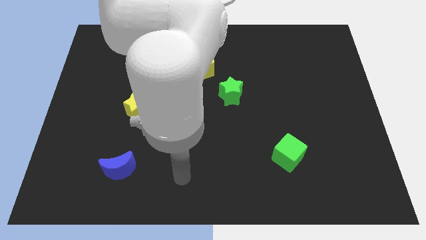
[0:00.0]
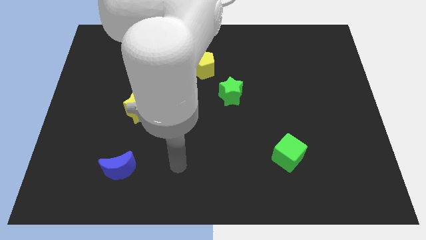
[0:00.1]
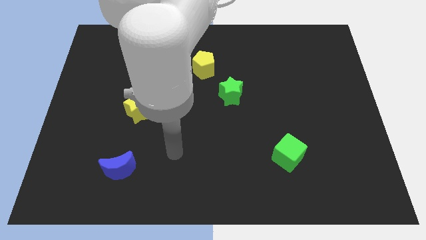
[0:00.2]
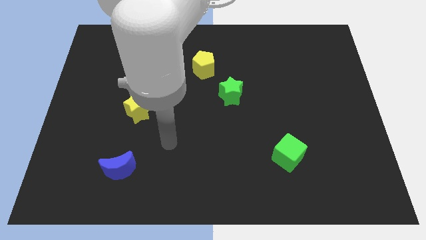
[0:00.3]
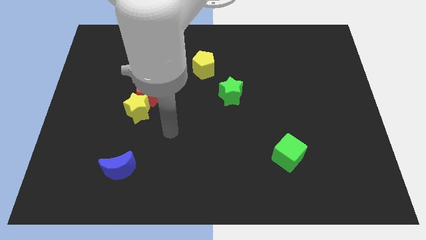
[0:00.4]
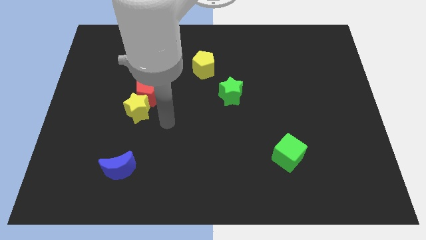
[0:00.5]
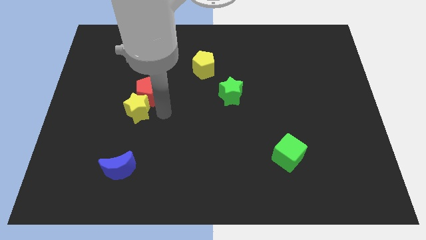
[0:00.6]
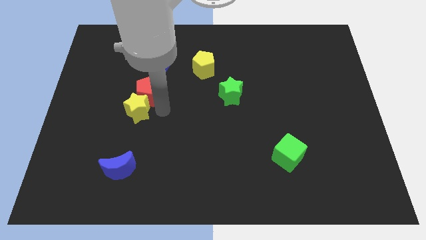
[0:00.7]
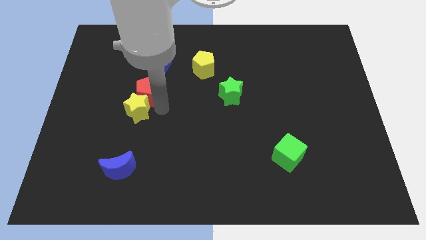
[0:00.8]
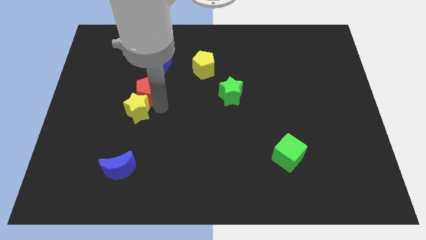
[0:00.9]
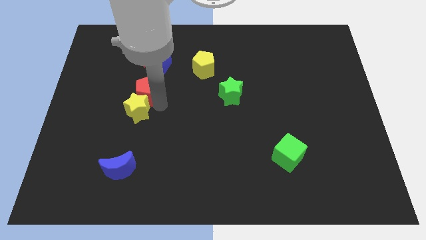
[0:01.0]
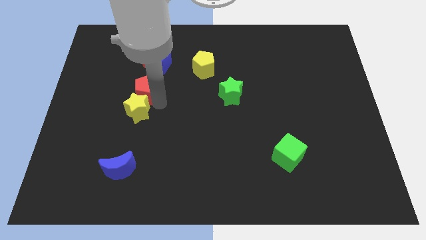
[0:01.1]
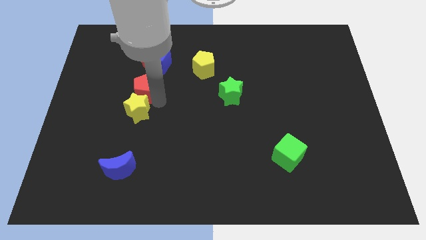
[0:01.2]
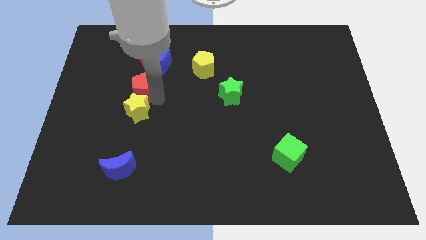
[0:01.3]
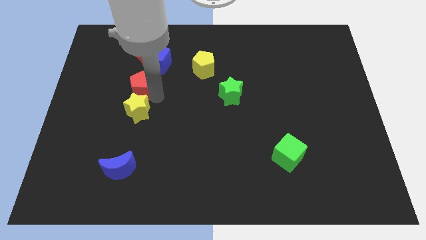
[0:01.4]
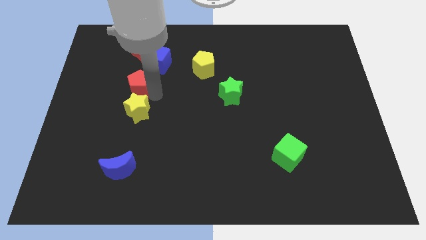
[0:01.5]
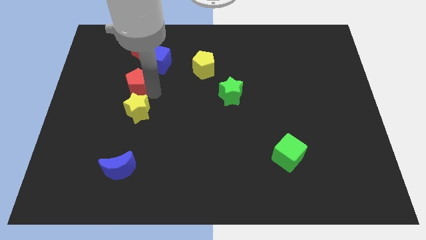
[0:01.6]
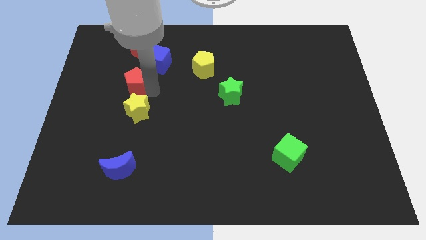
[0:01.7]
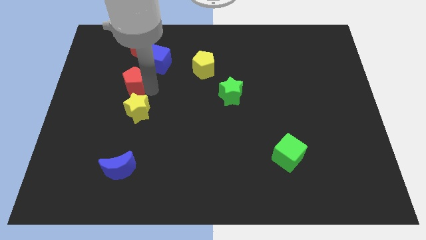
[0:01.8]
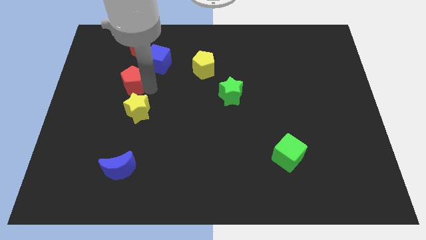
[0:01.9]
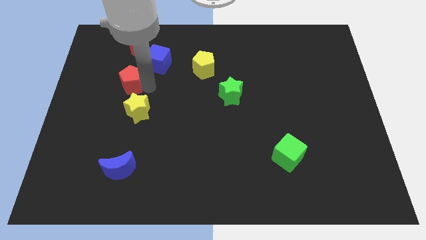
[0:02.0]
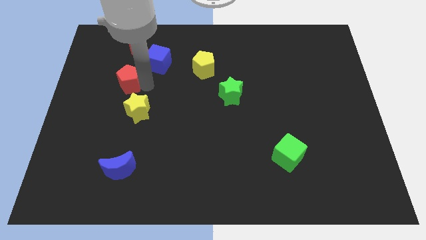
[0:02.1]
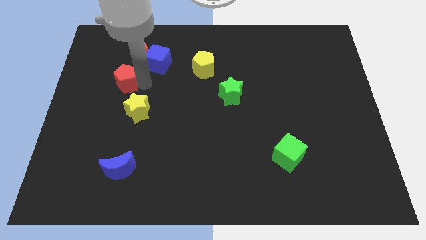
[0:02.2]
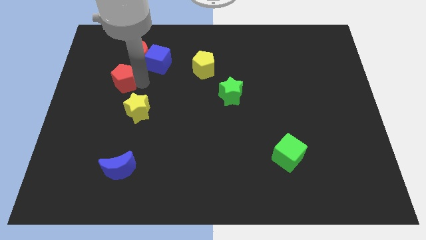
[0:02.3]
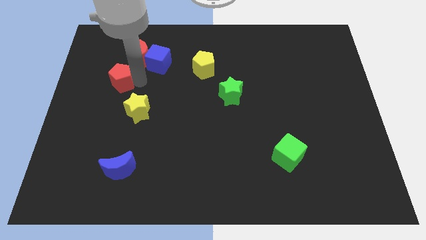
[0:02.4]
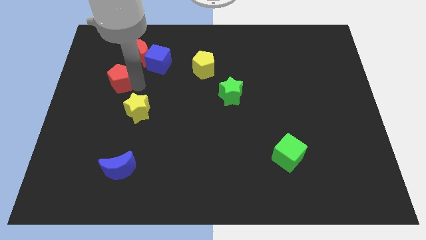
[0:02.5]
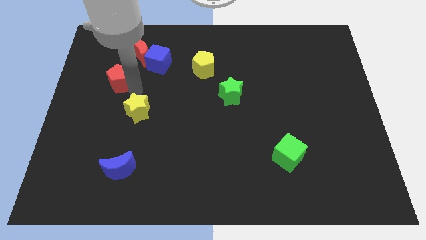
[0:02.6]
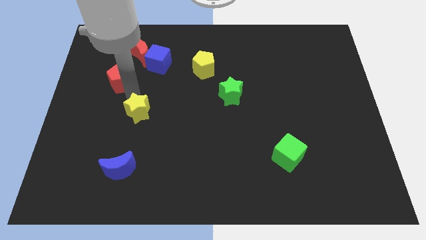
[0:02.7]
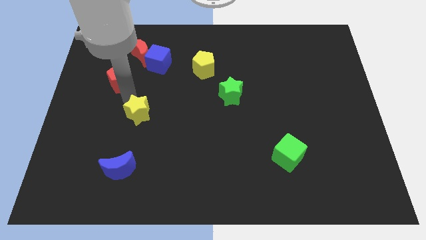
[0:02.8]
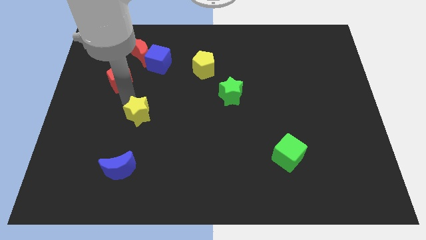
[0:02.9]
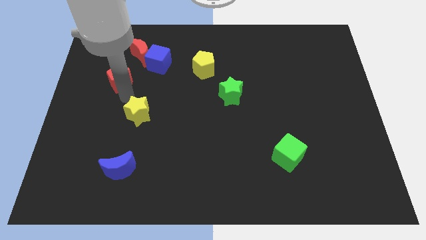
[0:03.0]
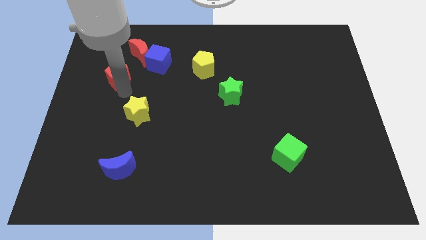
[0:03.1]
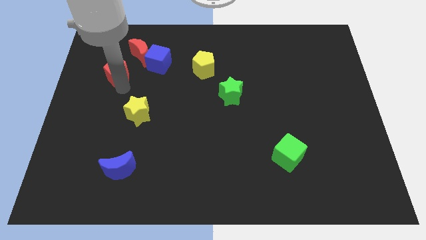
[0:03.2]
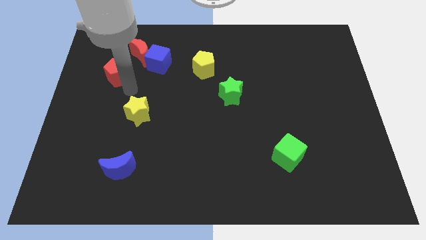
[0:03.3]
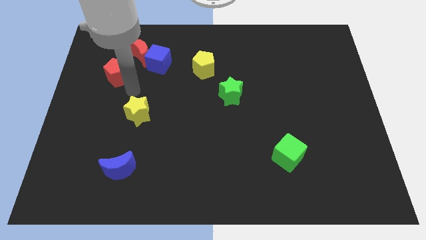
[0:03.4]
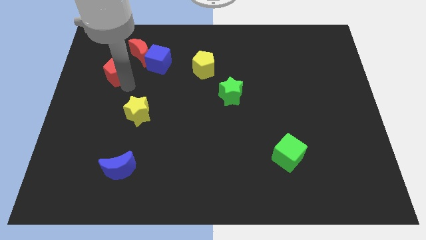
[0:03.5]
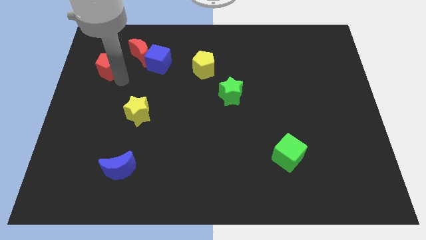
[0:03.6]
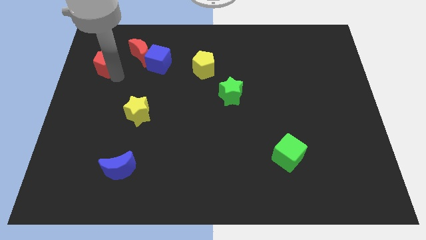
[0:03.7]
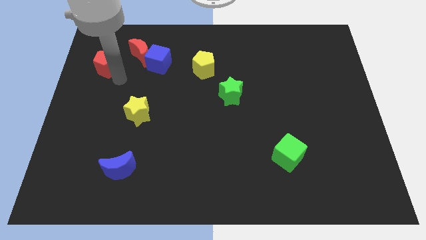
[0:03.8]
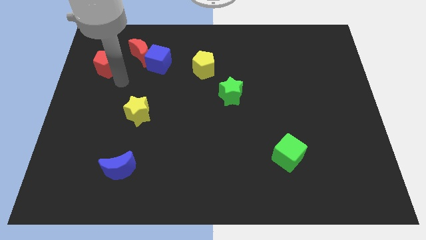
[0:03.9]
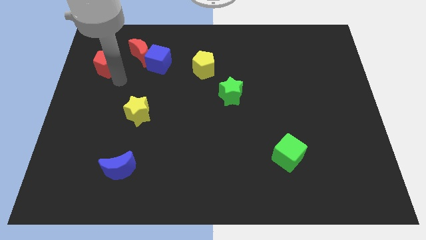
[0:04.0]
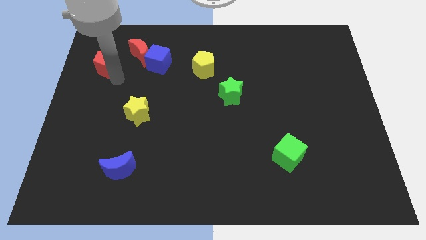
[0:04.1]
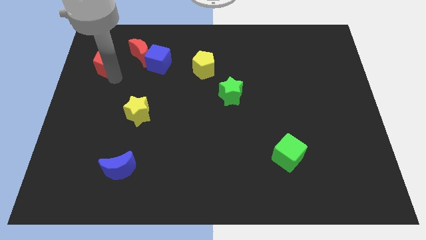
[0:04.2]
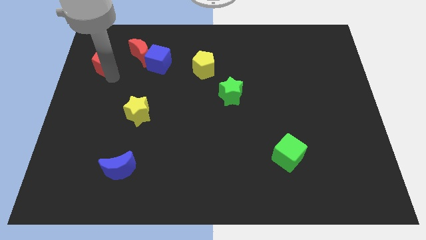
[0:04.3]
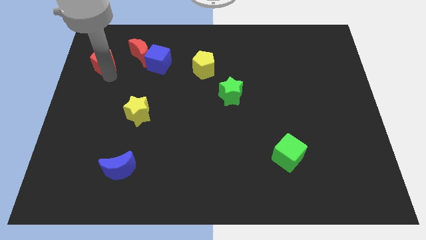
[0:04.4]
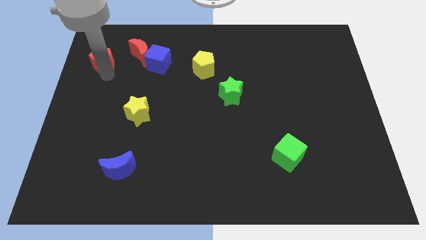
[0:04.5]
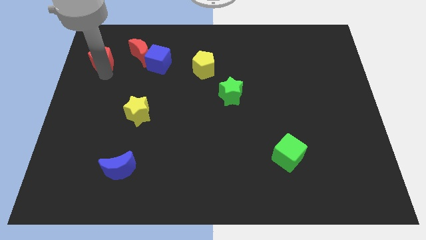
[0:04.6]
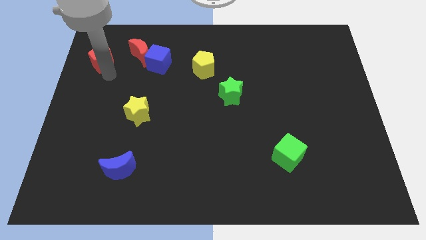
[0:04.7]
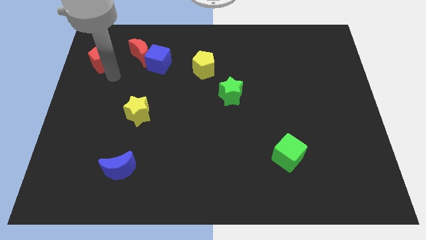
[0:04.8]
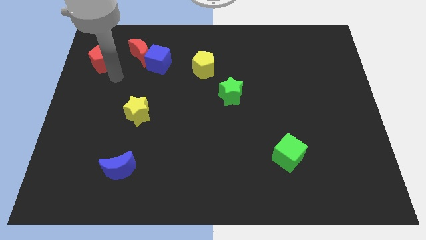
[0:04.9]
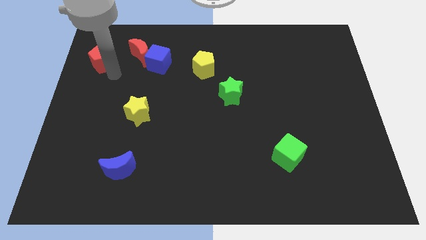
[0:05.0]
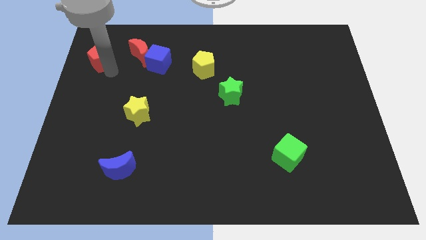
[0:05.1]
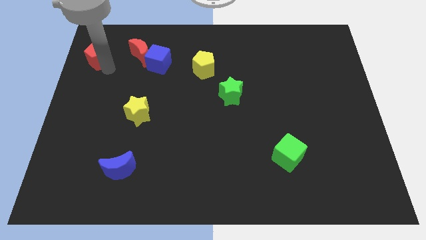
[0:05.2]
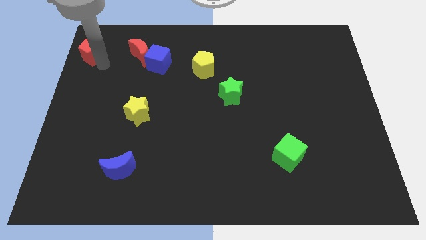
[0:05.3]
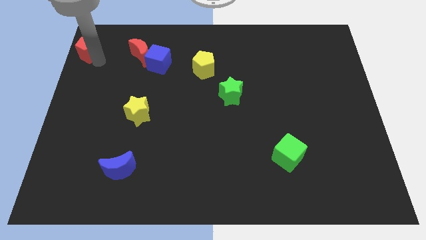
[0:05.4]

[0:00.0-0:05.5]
move the red pentagon to the top left corner
